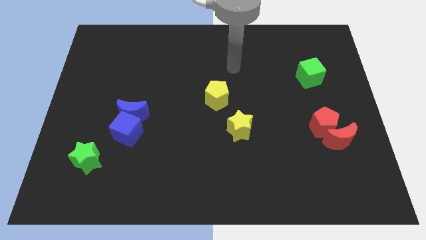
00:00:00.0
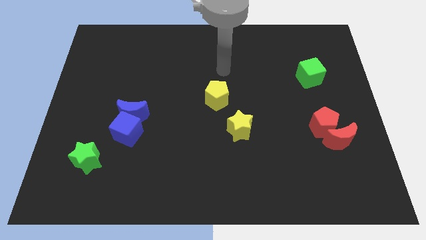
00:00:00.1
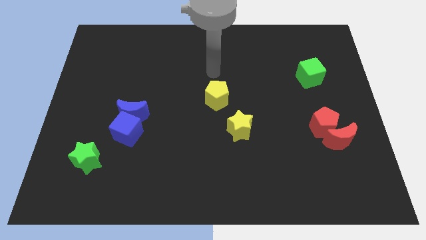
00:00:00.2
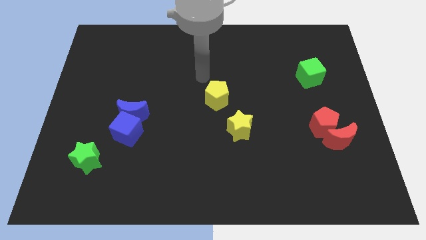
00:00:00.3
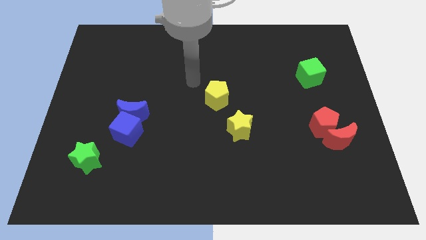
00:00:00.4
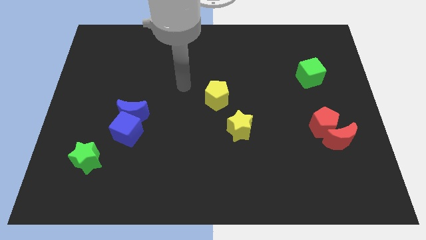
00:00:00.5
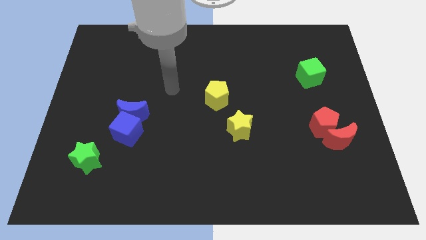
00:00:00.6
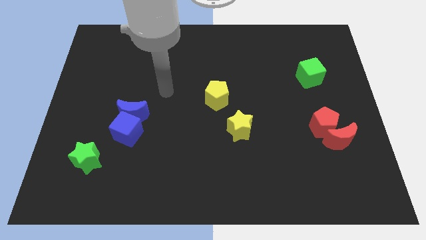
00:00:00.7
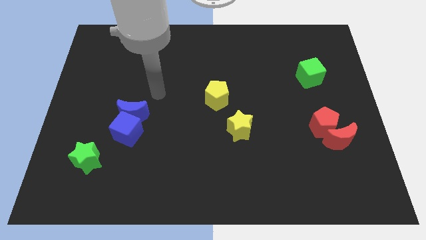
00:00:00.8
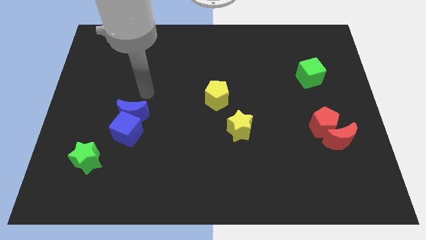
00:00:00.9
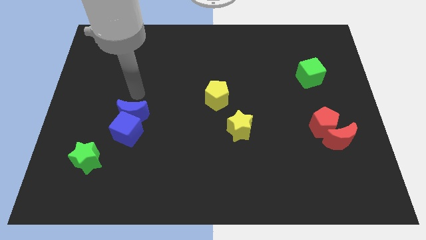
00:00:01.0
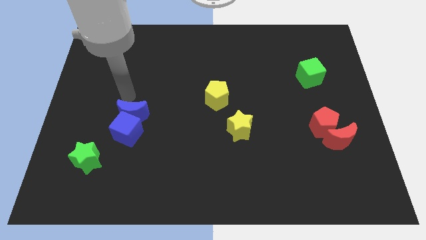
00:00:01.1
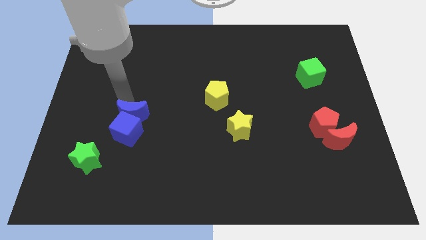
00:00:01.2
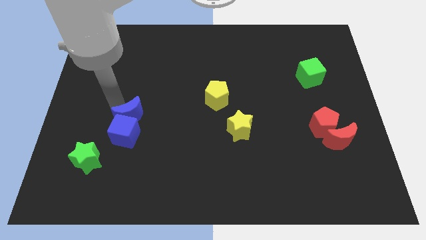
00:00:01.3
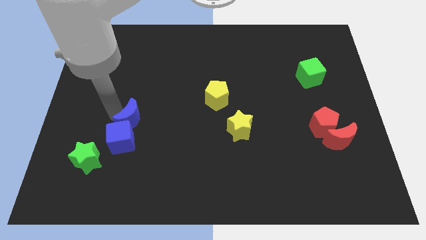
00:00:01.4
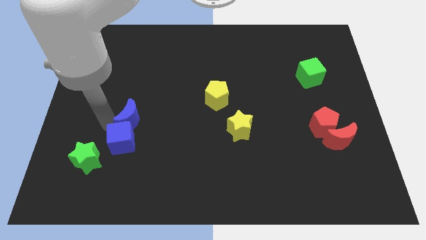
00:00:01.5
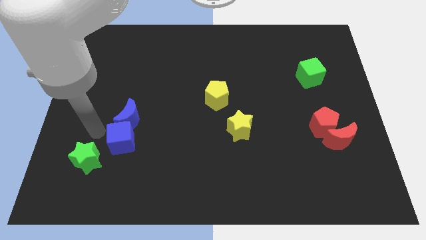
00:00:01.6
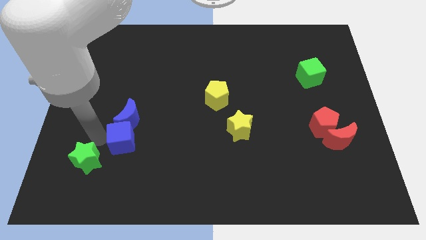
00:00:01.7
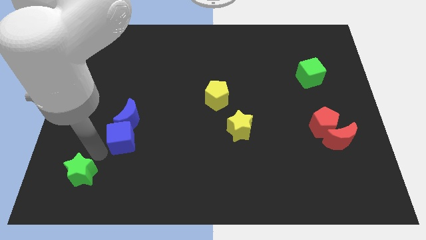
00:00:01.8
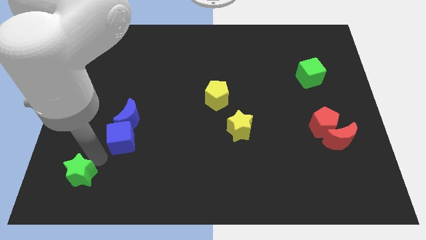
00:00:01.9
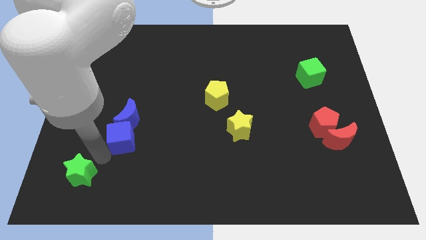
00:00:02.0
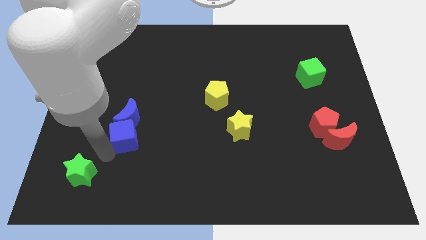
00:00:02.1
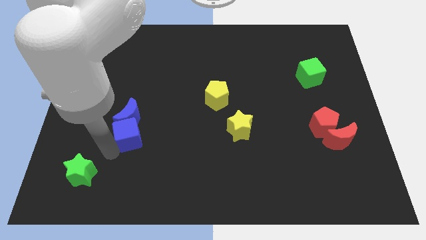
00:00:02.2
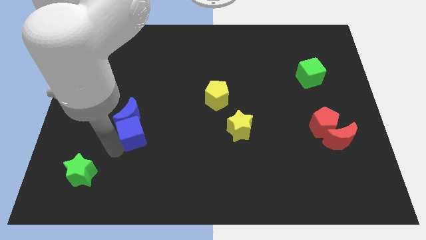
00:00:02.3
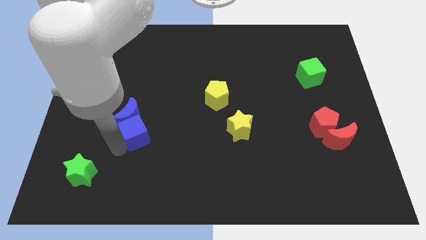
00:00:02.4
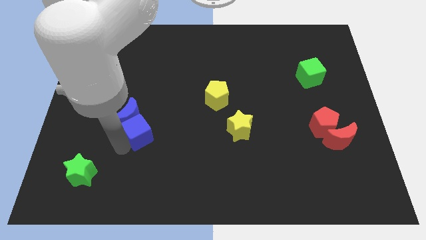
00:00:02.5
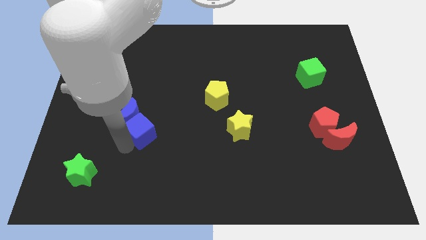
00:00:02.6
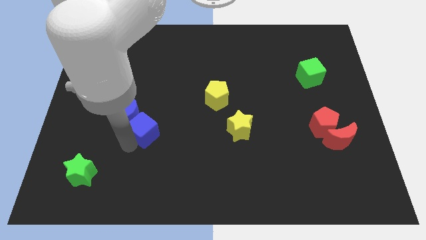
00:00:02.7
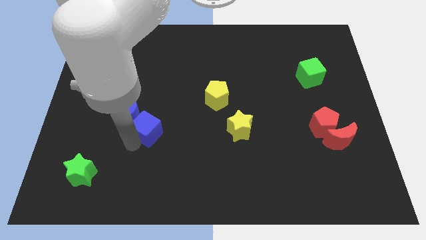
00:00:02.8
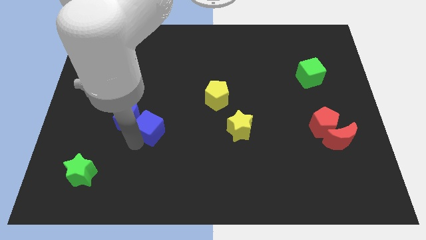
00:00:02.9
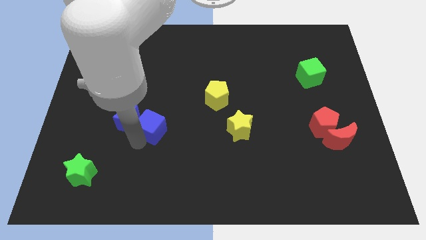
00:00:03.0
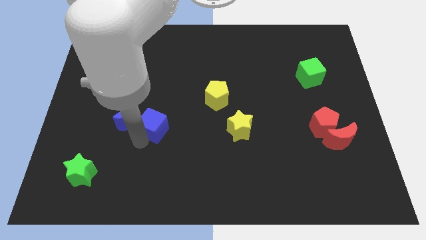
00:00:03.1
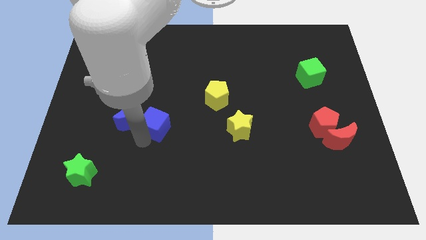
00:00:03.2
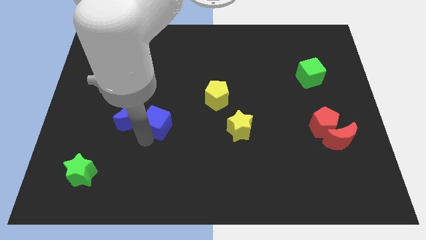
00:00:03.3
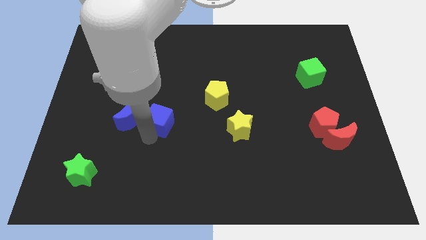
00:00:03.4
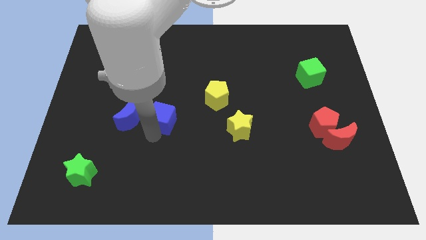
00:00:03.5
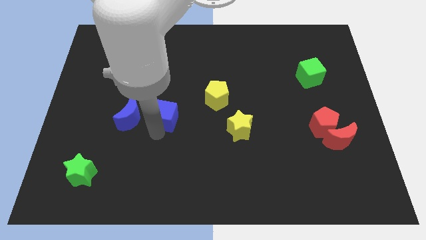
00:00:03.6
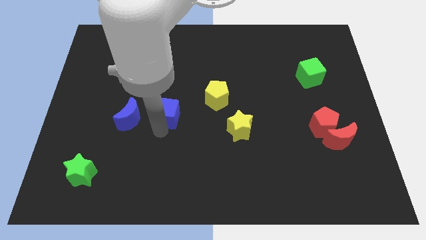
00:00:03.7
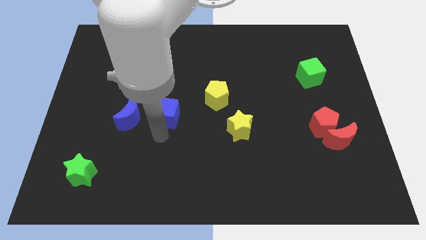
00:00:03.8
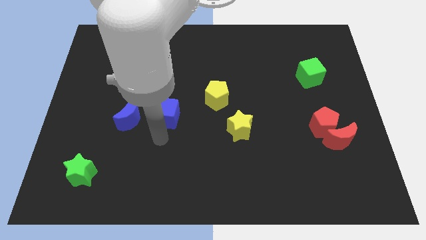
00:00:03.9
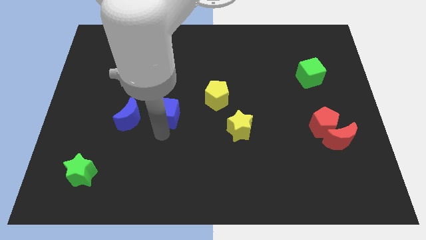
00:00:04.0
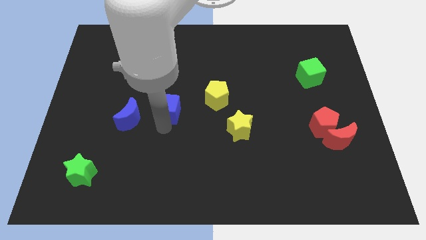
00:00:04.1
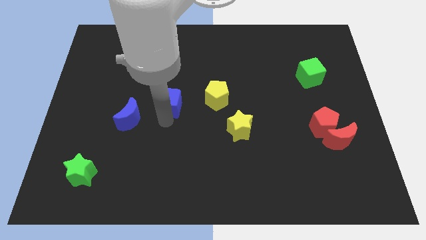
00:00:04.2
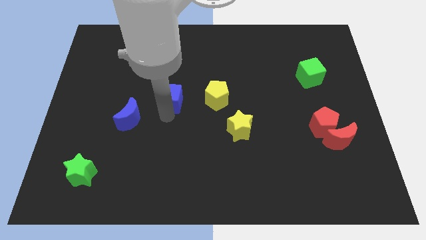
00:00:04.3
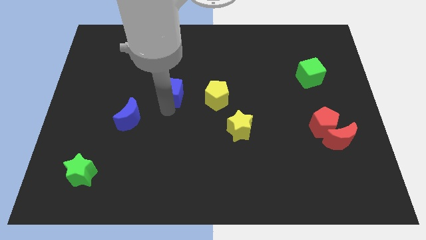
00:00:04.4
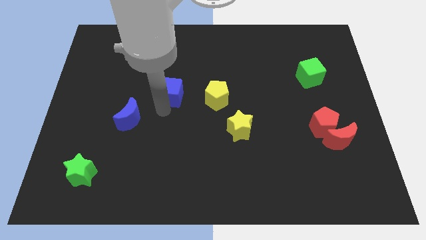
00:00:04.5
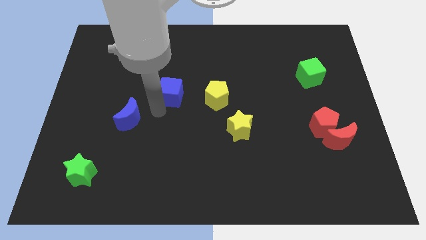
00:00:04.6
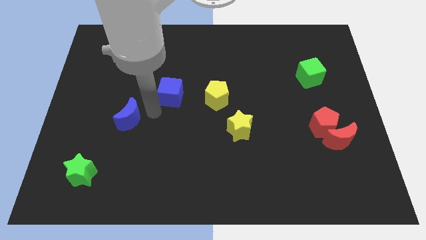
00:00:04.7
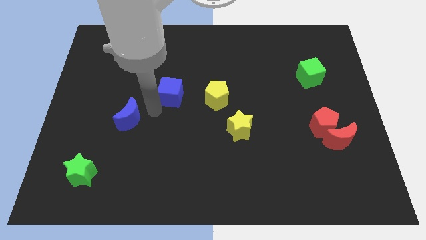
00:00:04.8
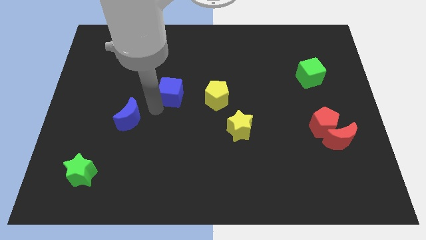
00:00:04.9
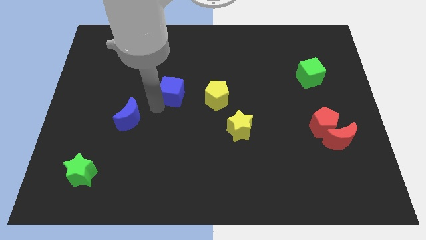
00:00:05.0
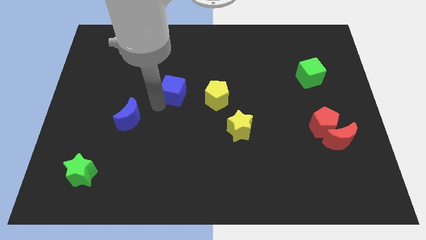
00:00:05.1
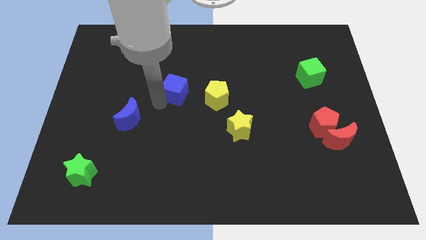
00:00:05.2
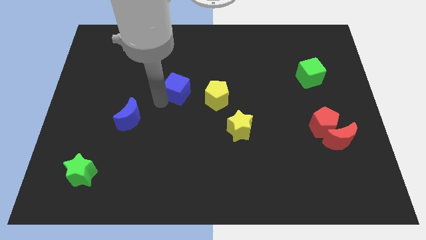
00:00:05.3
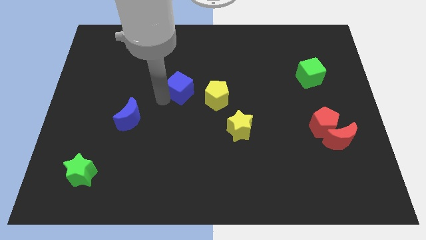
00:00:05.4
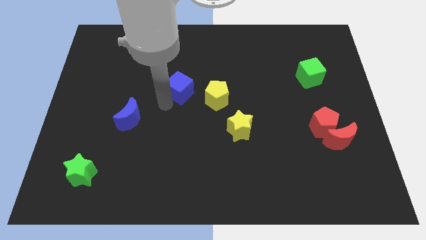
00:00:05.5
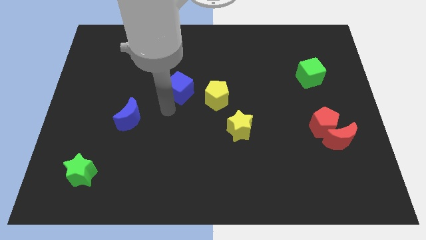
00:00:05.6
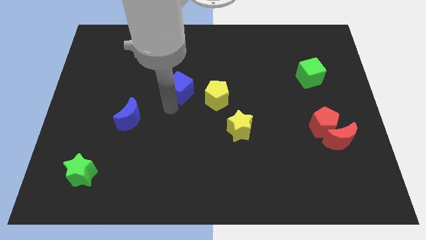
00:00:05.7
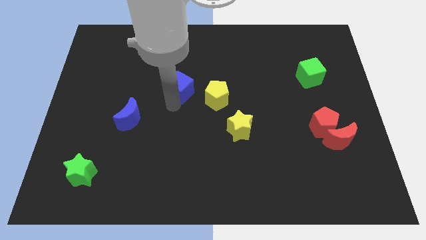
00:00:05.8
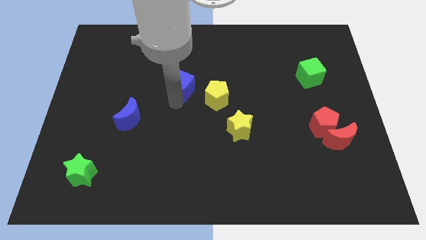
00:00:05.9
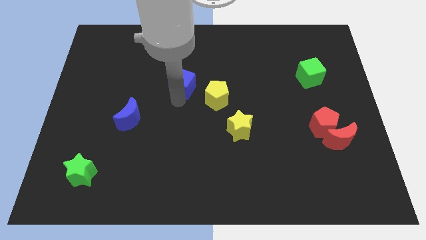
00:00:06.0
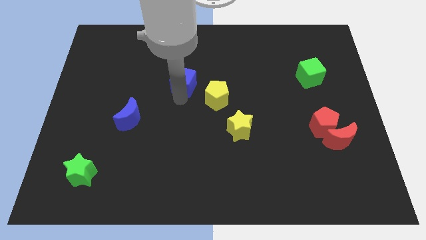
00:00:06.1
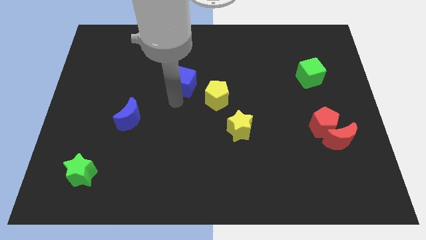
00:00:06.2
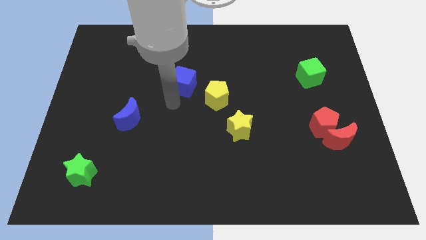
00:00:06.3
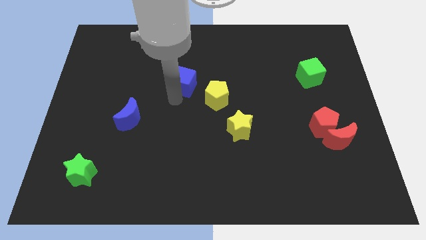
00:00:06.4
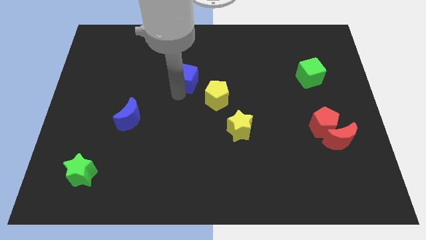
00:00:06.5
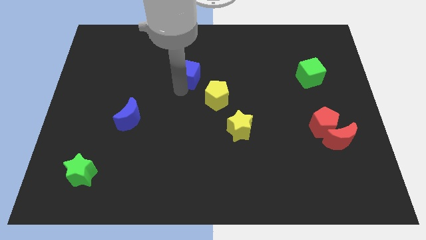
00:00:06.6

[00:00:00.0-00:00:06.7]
move the blue cube upwards and then to the right

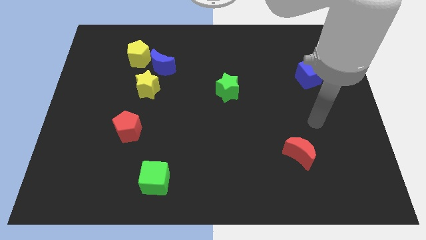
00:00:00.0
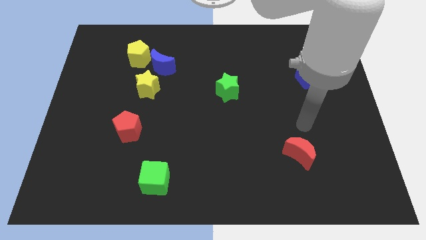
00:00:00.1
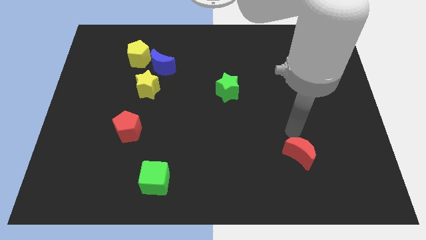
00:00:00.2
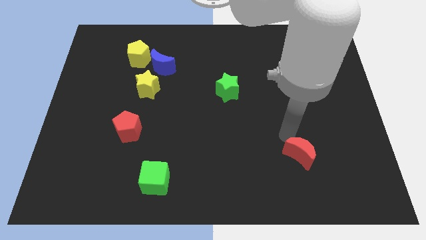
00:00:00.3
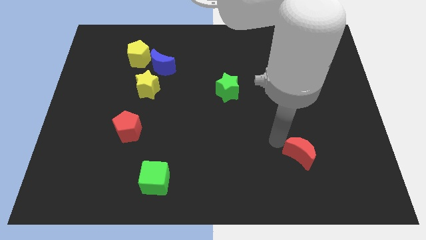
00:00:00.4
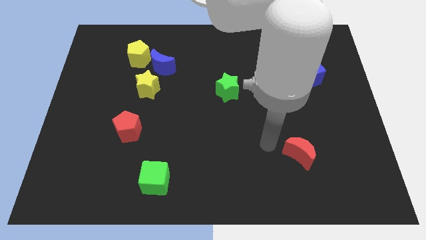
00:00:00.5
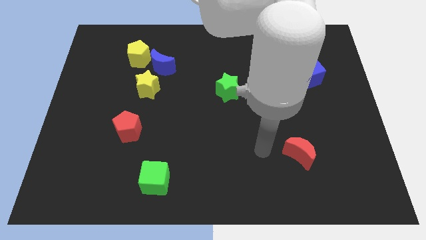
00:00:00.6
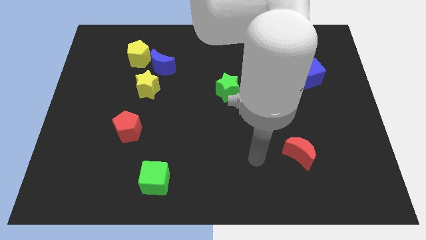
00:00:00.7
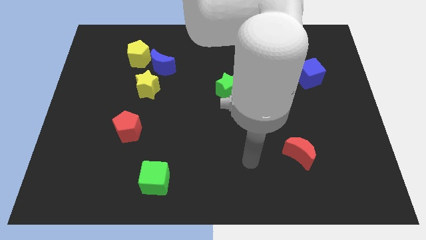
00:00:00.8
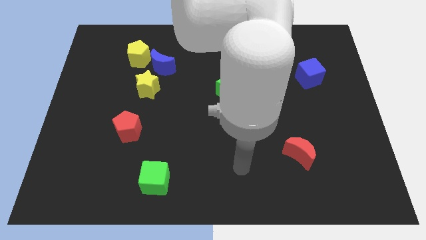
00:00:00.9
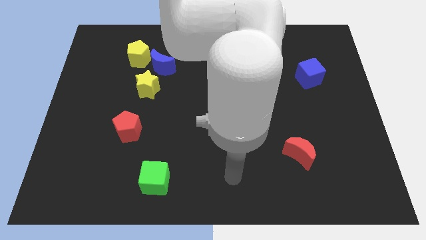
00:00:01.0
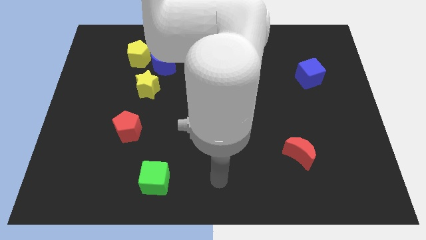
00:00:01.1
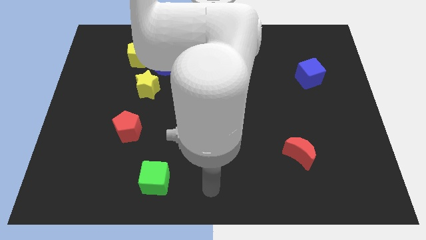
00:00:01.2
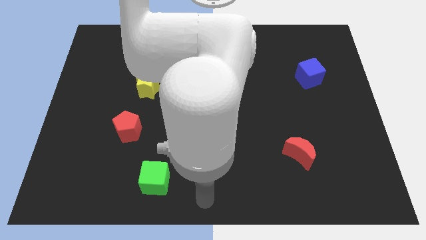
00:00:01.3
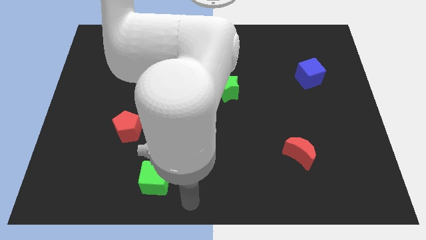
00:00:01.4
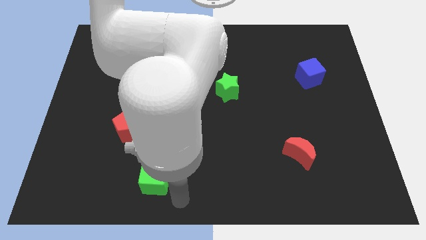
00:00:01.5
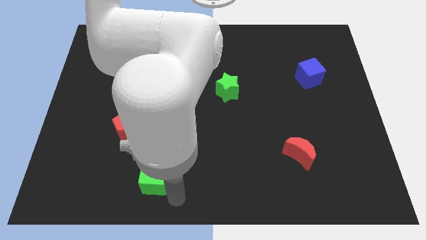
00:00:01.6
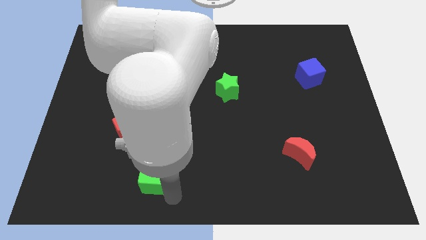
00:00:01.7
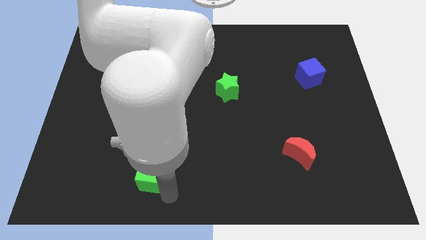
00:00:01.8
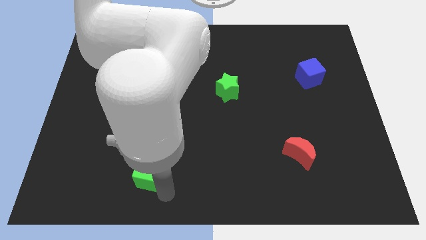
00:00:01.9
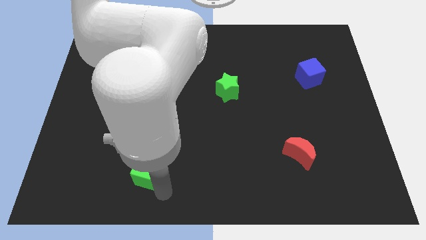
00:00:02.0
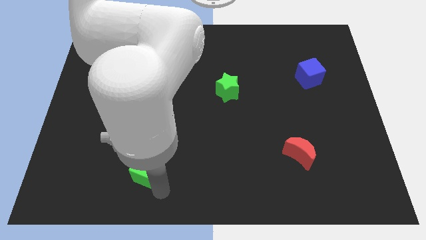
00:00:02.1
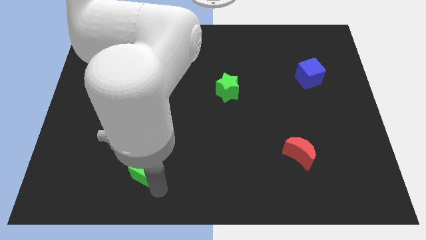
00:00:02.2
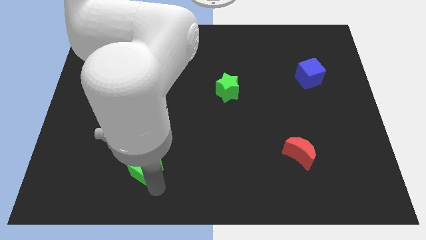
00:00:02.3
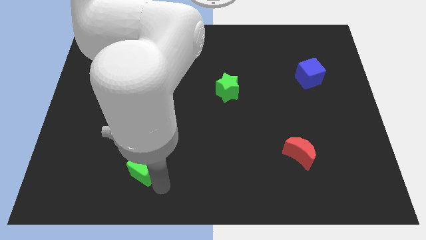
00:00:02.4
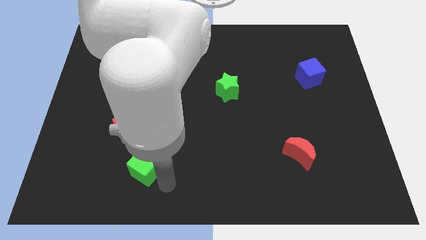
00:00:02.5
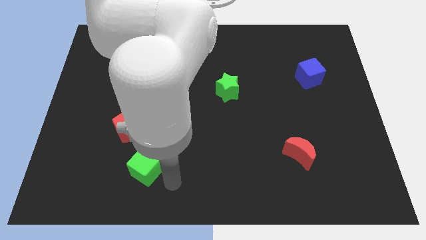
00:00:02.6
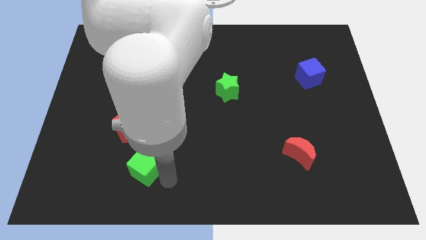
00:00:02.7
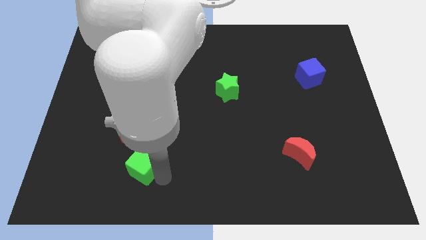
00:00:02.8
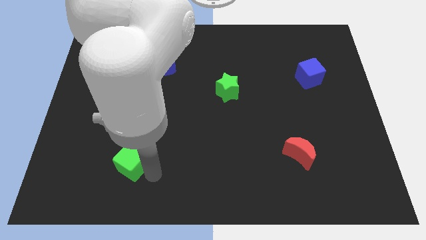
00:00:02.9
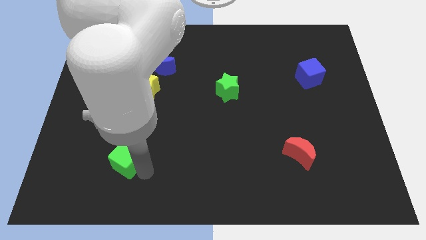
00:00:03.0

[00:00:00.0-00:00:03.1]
slightly slide the green cube upwards and to the left
